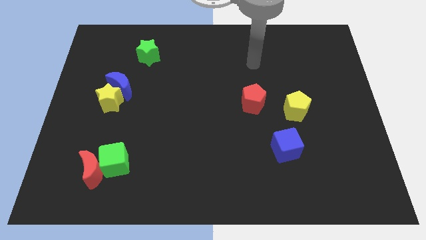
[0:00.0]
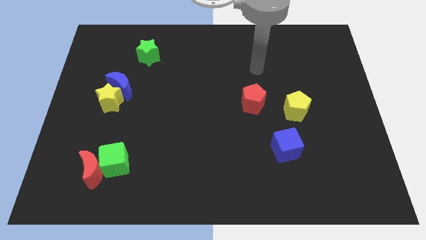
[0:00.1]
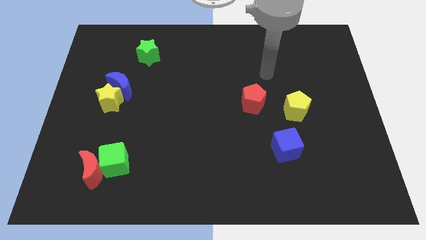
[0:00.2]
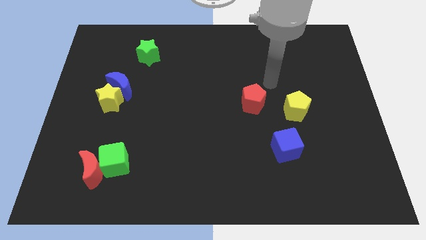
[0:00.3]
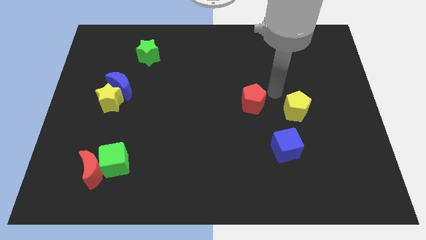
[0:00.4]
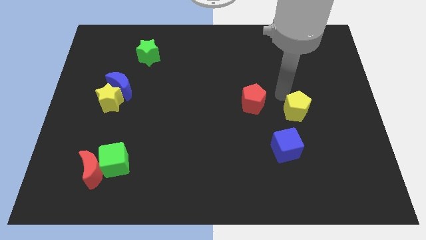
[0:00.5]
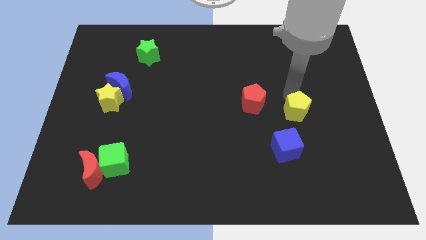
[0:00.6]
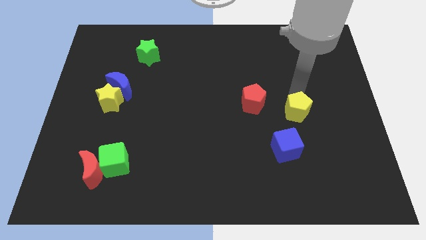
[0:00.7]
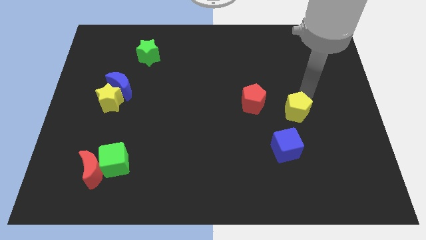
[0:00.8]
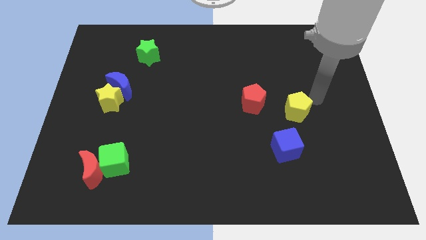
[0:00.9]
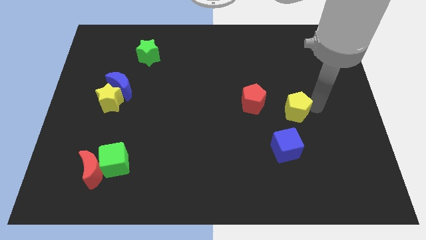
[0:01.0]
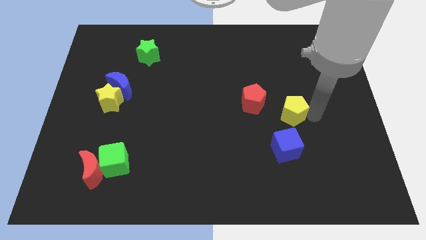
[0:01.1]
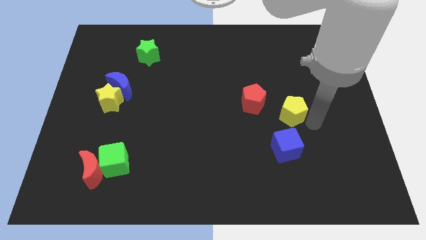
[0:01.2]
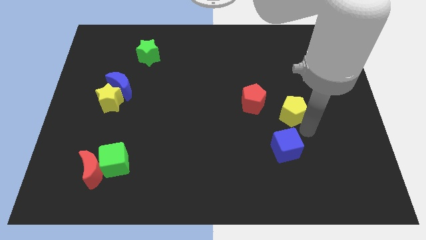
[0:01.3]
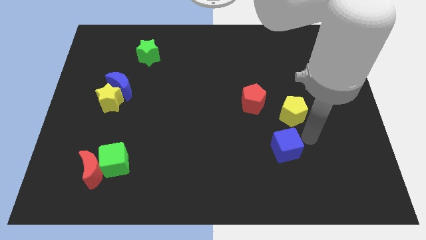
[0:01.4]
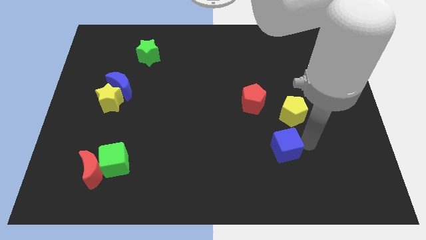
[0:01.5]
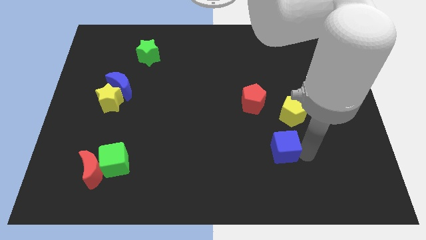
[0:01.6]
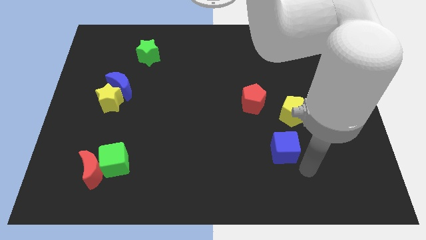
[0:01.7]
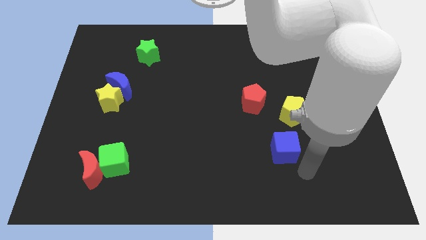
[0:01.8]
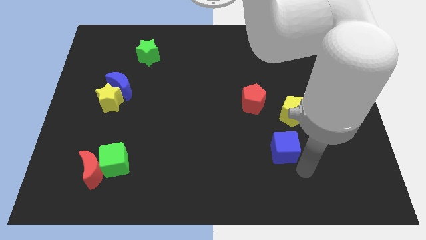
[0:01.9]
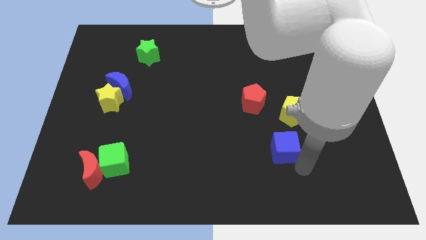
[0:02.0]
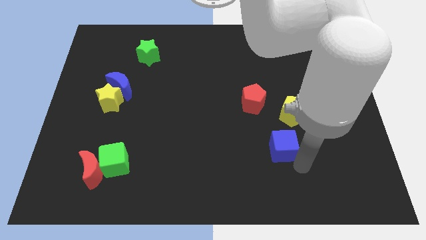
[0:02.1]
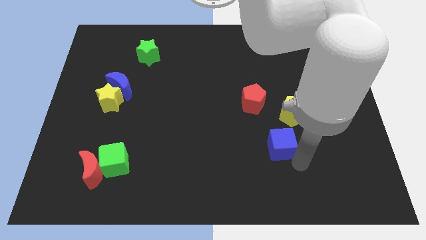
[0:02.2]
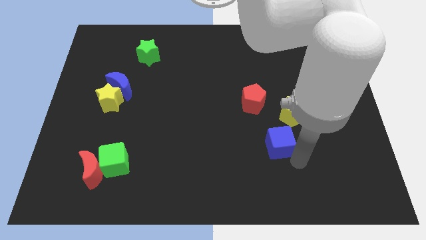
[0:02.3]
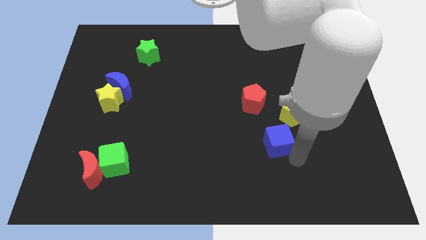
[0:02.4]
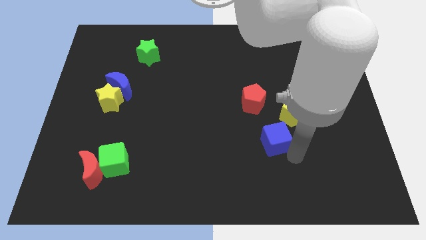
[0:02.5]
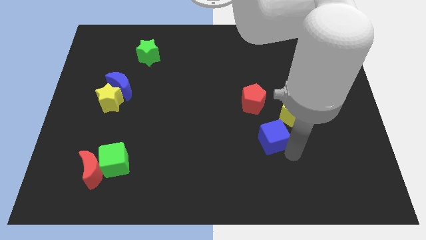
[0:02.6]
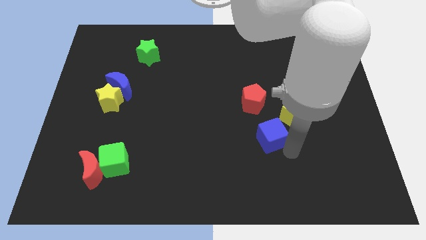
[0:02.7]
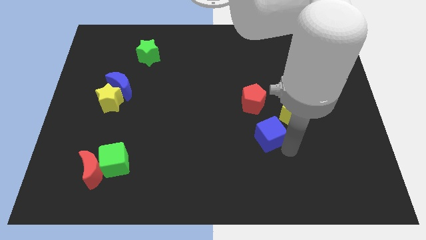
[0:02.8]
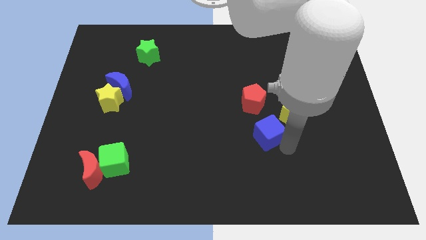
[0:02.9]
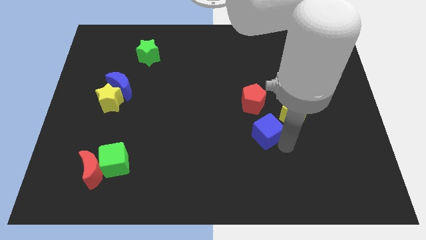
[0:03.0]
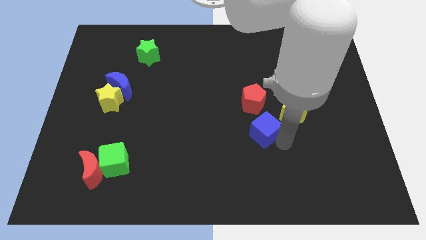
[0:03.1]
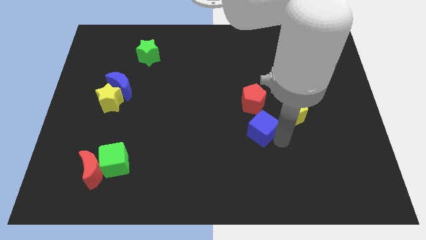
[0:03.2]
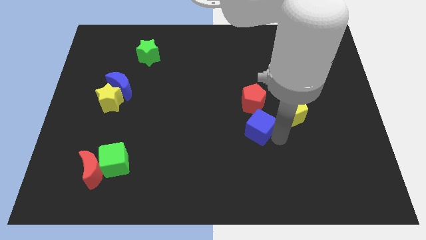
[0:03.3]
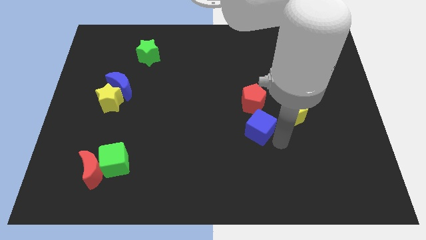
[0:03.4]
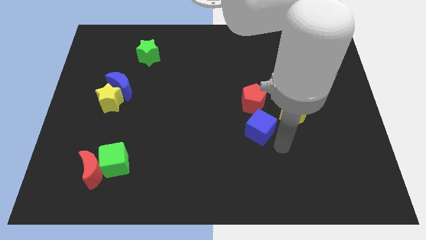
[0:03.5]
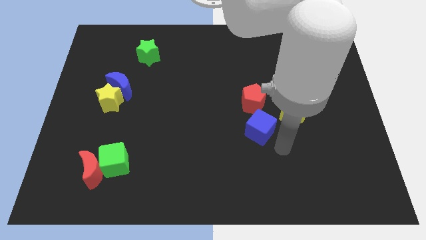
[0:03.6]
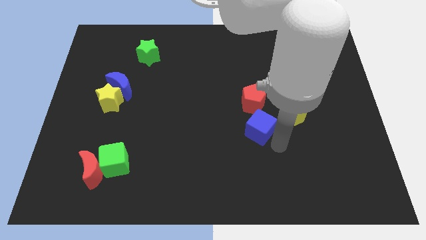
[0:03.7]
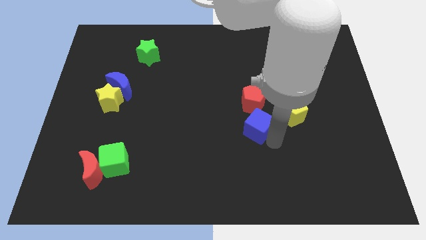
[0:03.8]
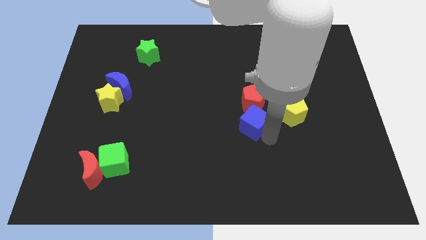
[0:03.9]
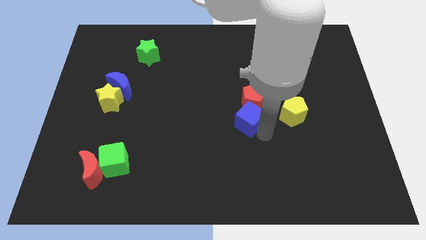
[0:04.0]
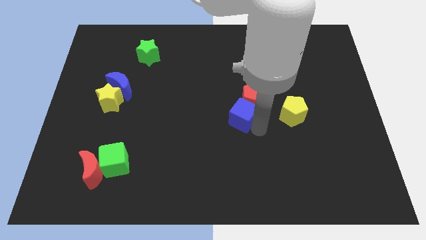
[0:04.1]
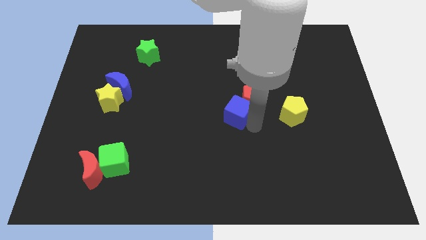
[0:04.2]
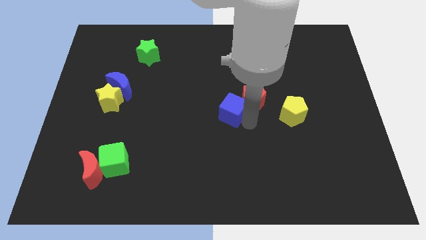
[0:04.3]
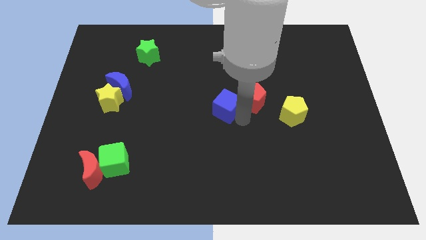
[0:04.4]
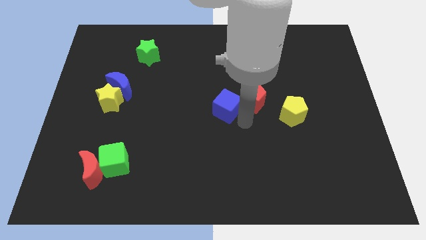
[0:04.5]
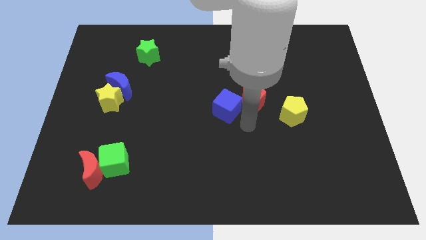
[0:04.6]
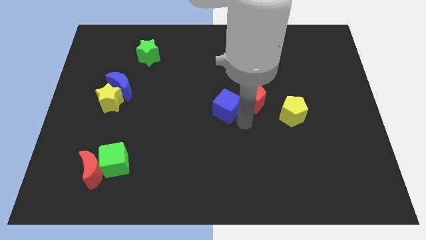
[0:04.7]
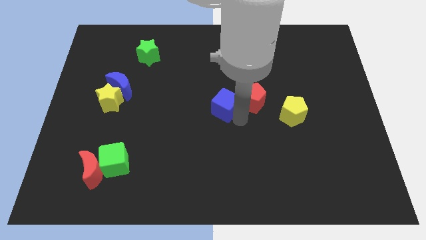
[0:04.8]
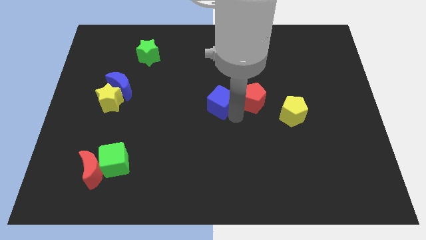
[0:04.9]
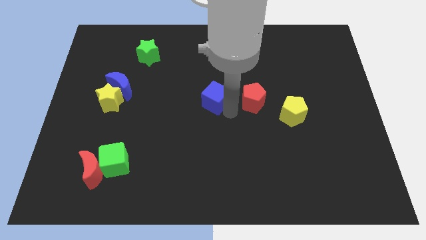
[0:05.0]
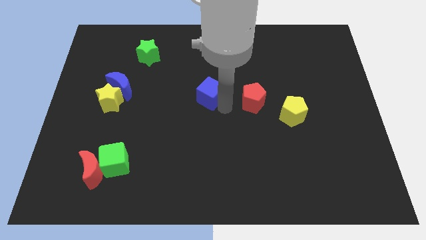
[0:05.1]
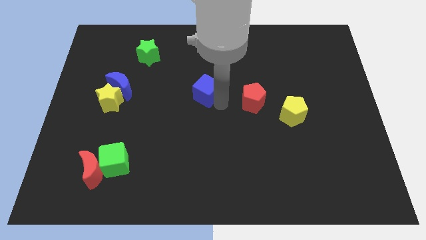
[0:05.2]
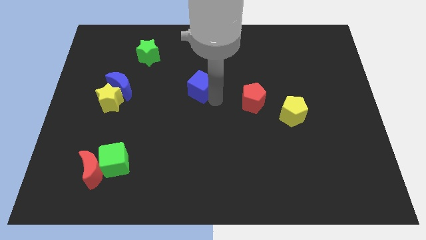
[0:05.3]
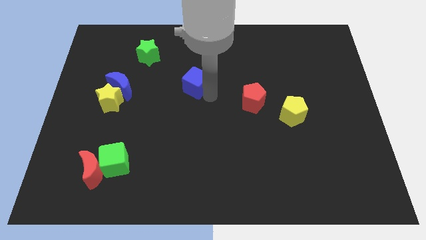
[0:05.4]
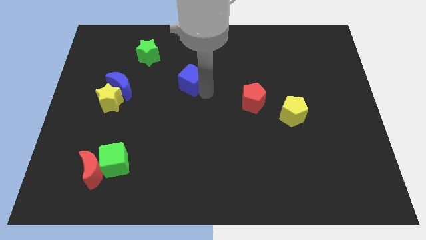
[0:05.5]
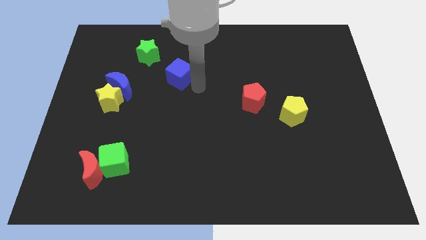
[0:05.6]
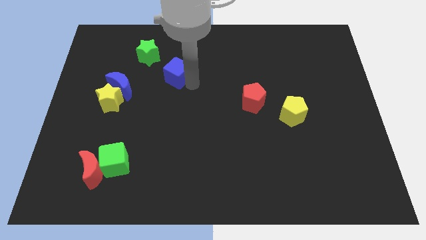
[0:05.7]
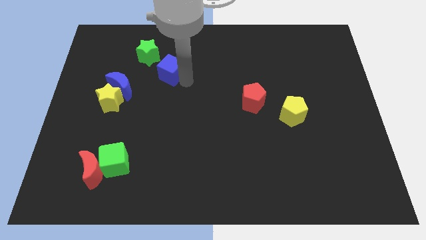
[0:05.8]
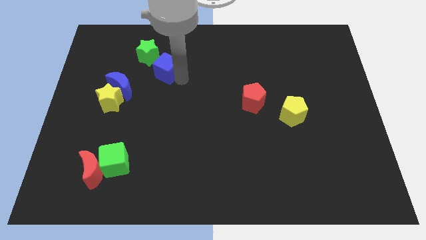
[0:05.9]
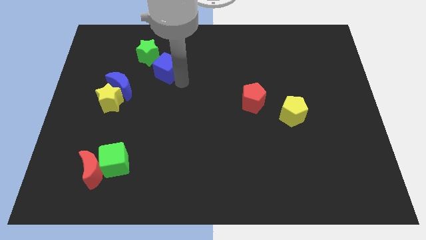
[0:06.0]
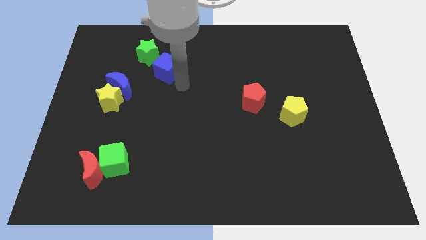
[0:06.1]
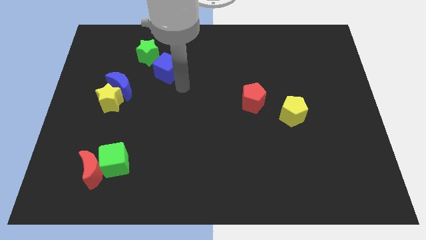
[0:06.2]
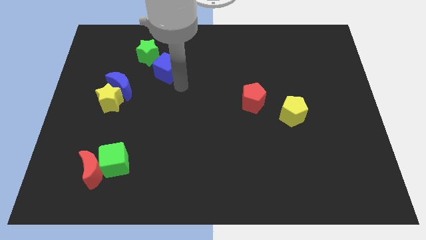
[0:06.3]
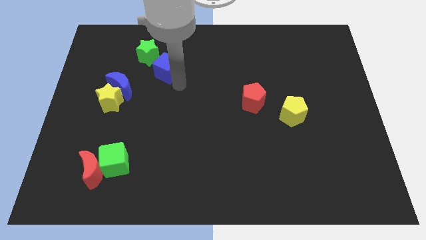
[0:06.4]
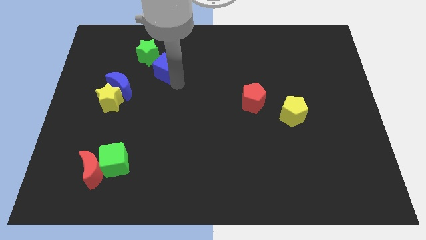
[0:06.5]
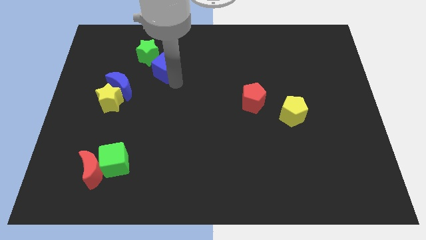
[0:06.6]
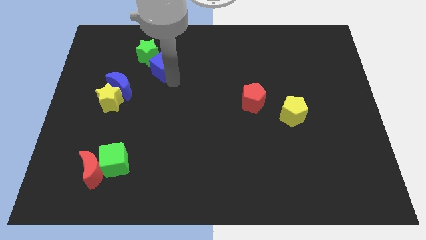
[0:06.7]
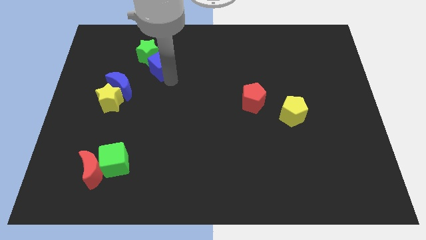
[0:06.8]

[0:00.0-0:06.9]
move the blue cube close to the green star

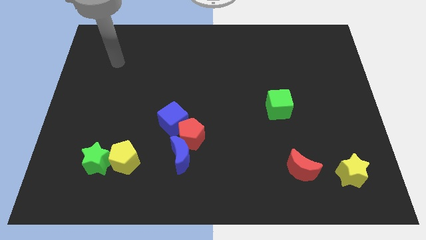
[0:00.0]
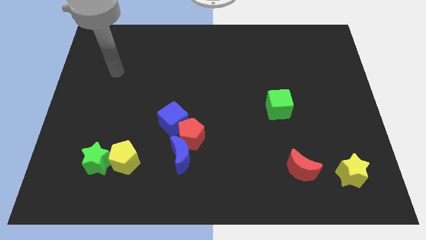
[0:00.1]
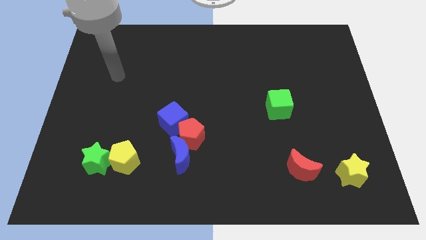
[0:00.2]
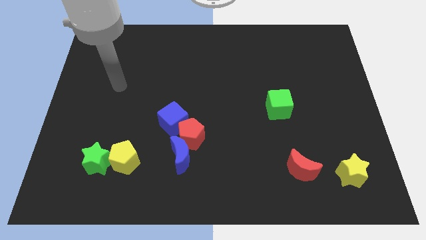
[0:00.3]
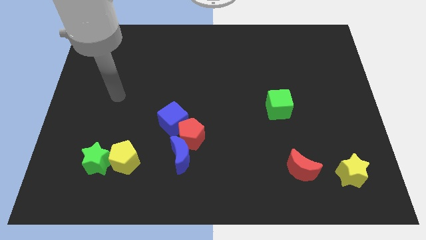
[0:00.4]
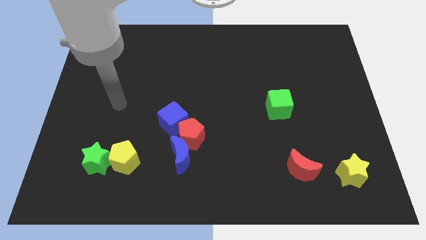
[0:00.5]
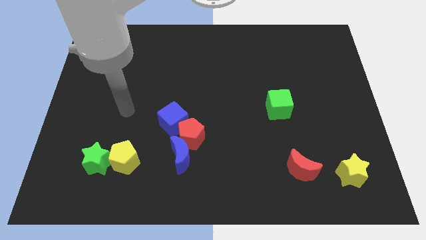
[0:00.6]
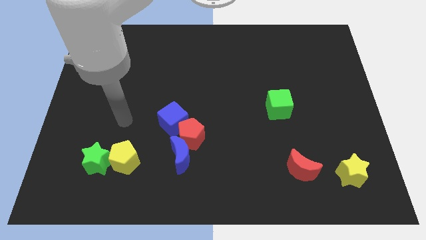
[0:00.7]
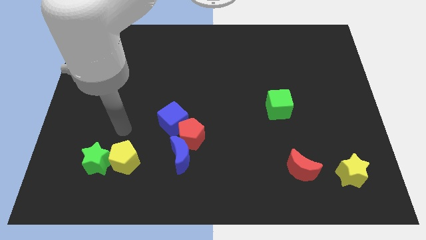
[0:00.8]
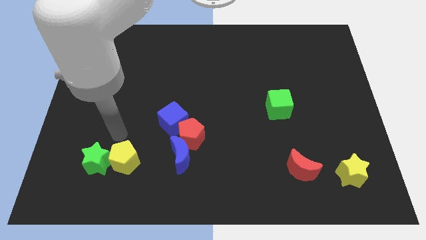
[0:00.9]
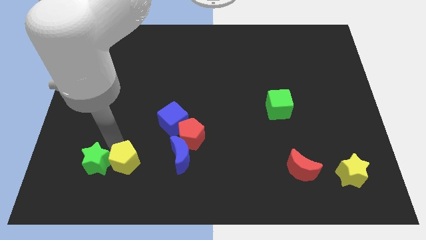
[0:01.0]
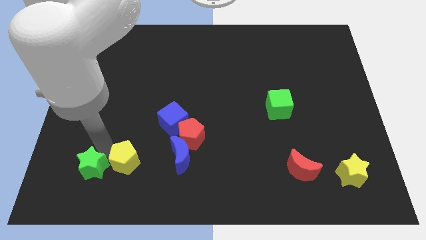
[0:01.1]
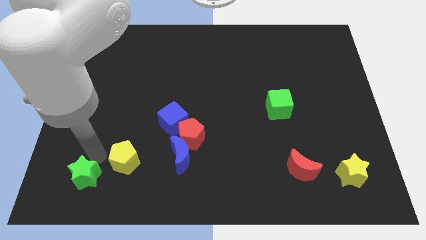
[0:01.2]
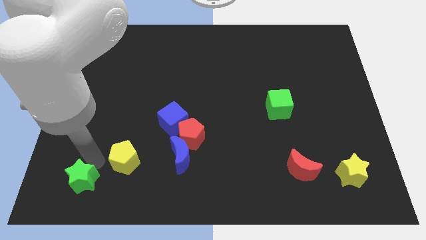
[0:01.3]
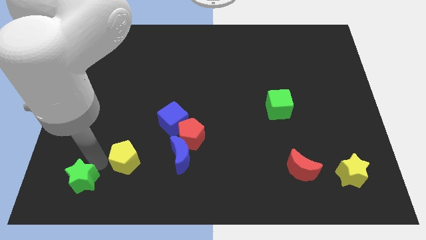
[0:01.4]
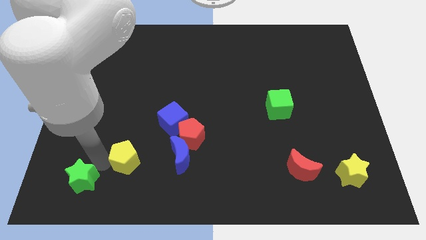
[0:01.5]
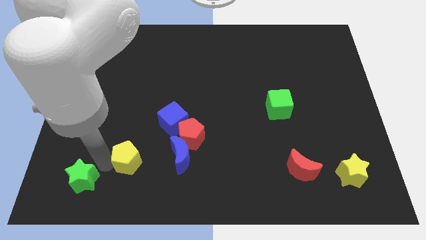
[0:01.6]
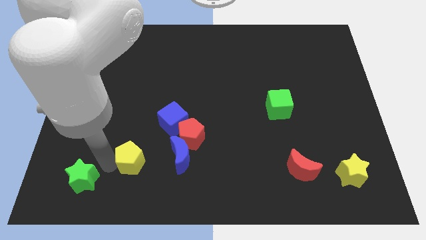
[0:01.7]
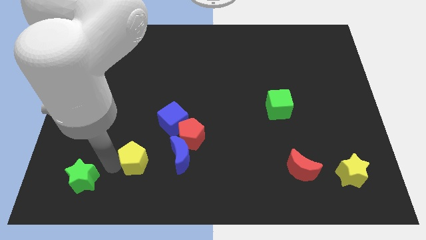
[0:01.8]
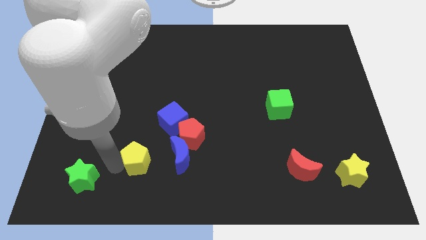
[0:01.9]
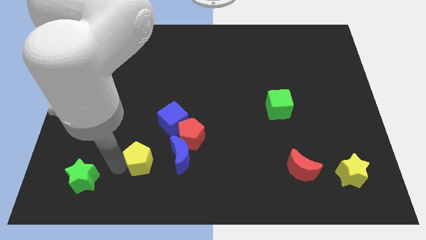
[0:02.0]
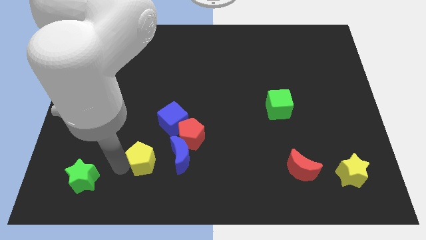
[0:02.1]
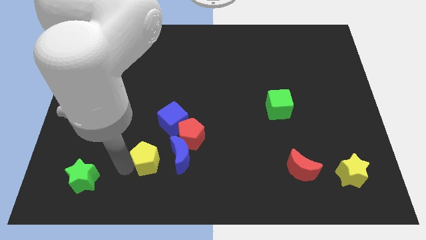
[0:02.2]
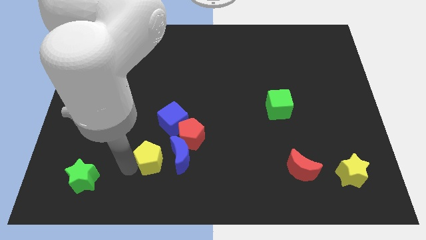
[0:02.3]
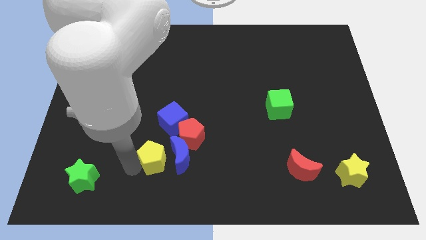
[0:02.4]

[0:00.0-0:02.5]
slide the yellow pentagon next to the blue moon
